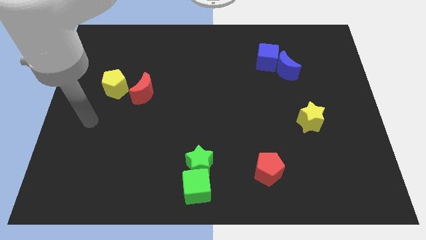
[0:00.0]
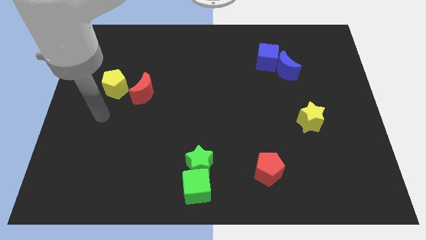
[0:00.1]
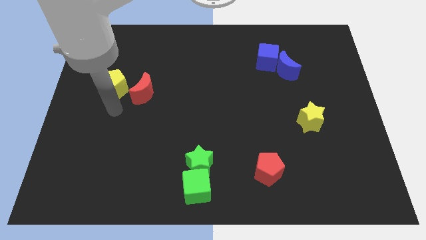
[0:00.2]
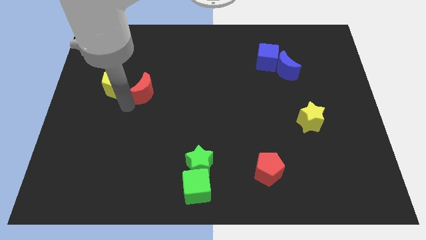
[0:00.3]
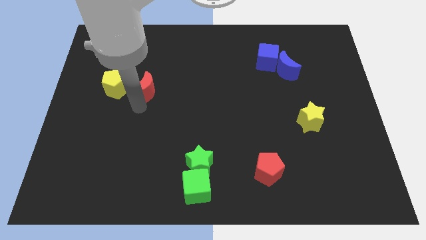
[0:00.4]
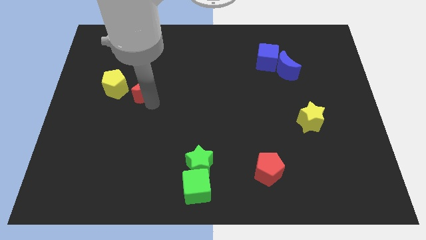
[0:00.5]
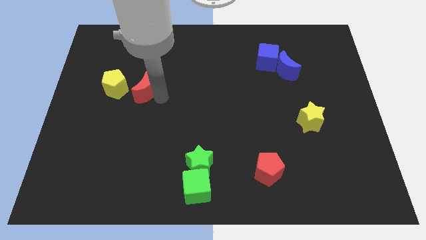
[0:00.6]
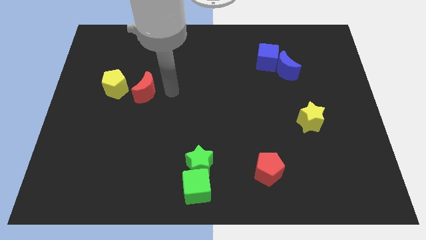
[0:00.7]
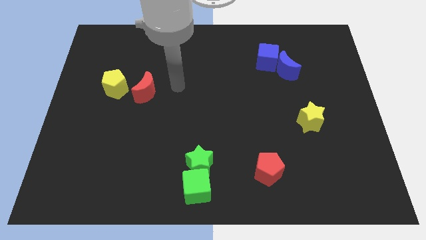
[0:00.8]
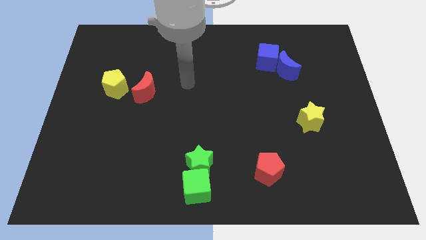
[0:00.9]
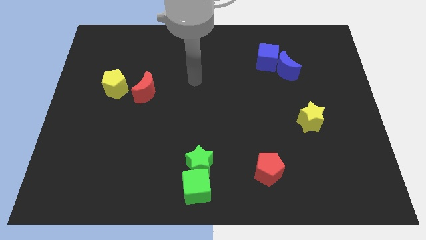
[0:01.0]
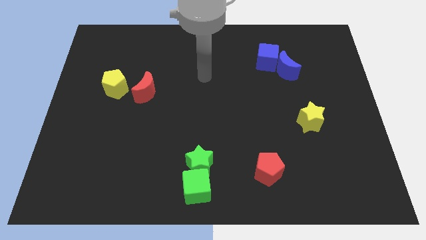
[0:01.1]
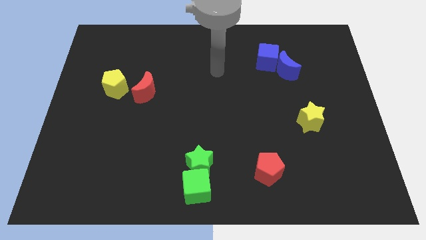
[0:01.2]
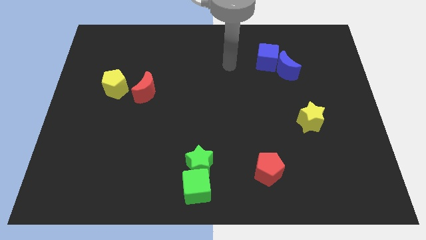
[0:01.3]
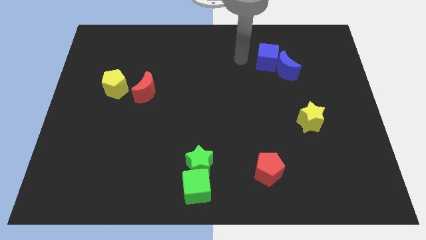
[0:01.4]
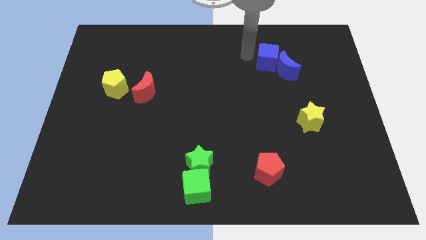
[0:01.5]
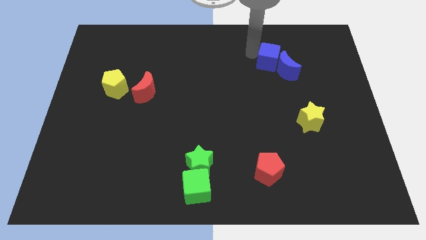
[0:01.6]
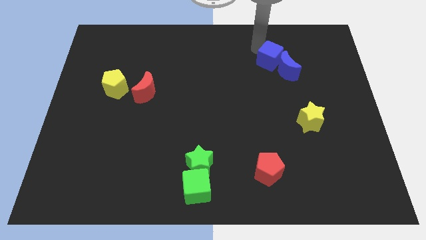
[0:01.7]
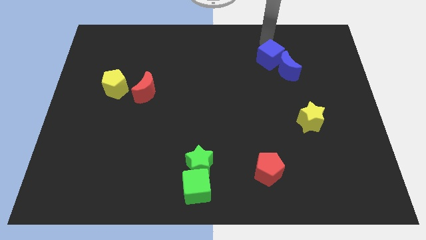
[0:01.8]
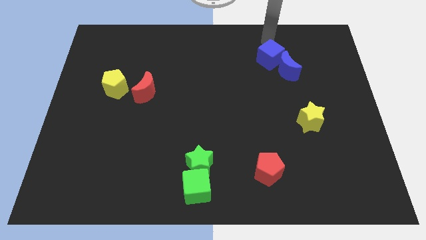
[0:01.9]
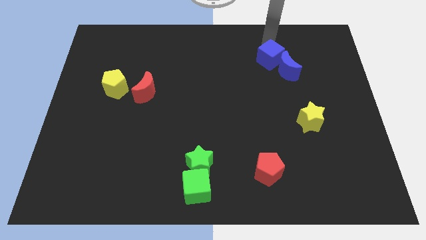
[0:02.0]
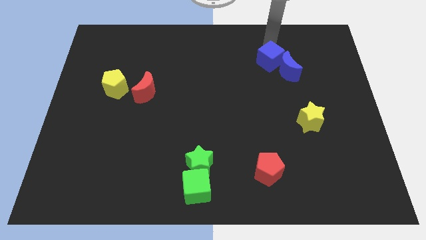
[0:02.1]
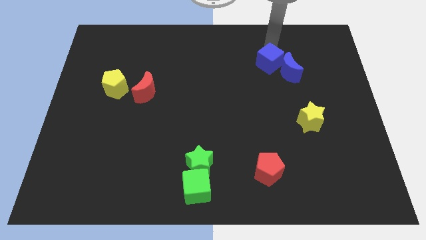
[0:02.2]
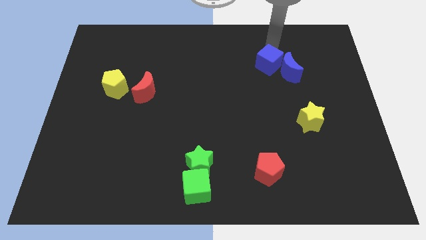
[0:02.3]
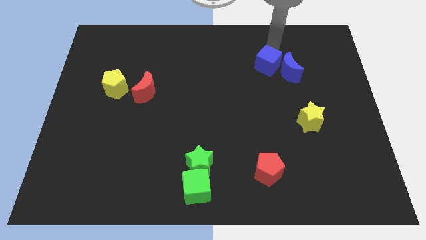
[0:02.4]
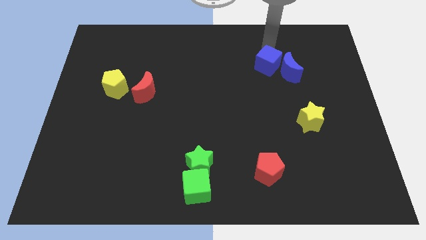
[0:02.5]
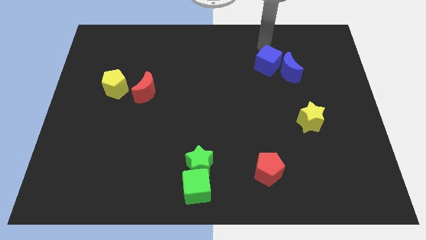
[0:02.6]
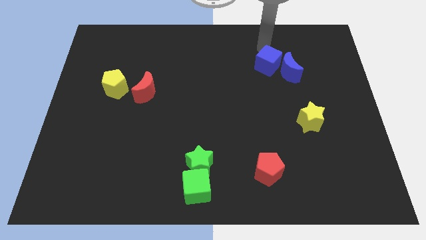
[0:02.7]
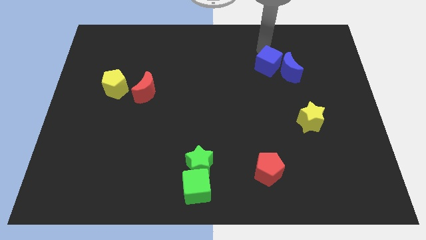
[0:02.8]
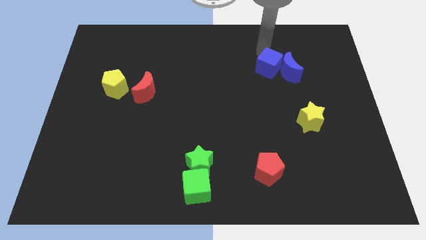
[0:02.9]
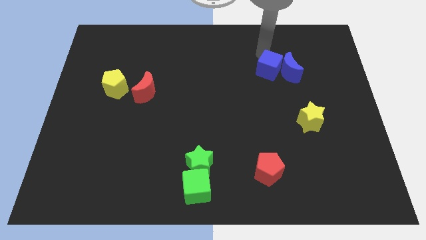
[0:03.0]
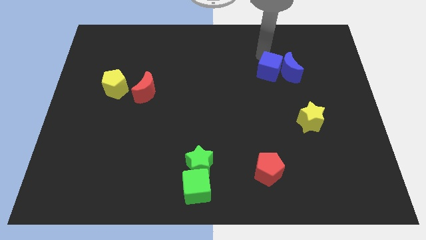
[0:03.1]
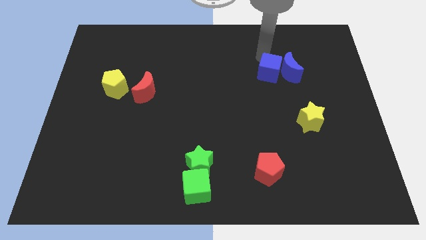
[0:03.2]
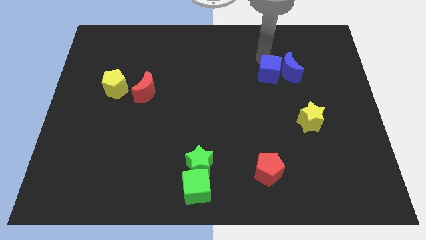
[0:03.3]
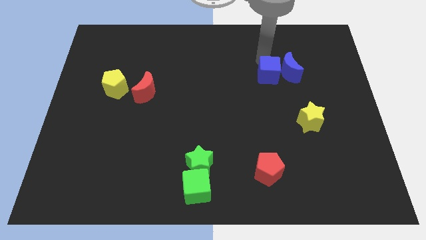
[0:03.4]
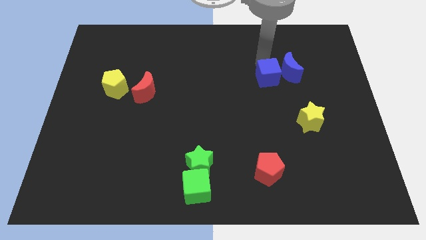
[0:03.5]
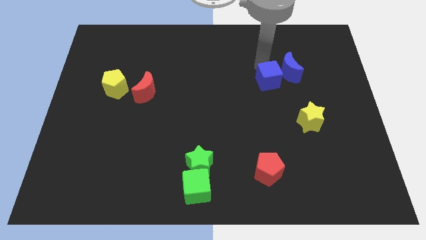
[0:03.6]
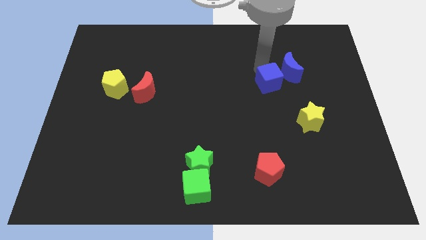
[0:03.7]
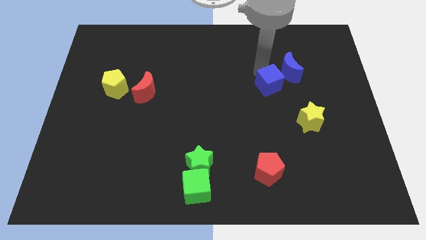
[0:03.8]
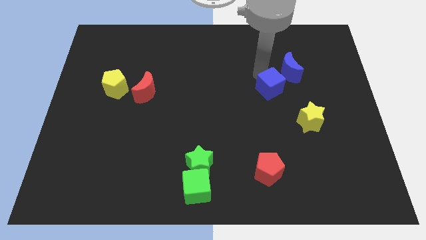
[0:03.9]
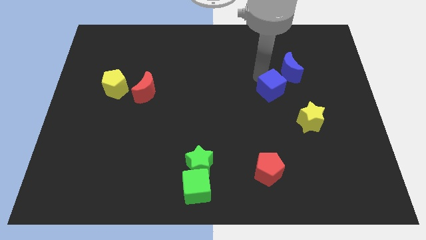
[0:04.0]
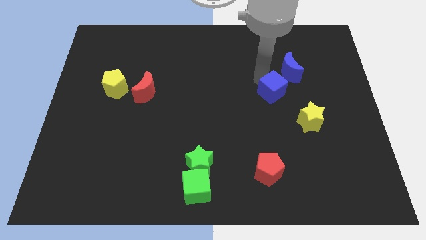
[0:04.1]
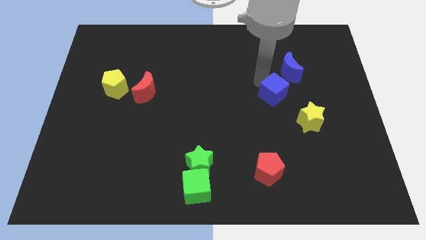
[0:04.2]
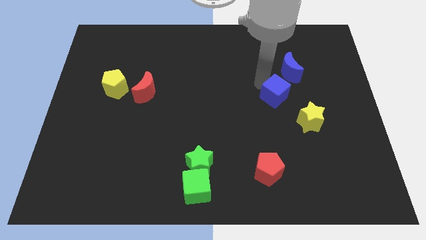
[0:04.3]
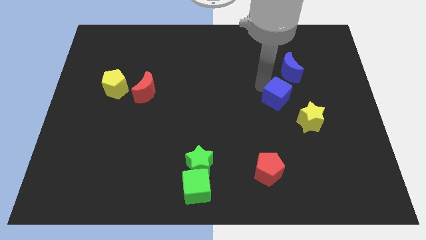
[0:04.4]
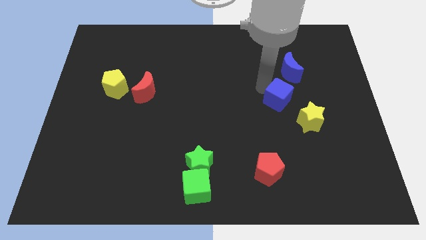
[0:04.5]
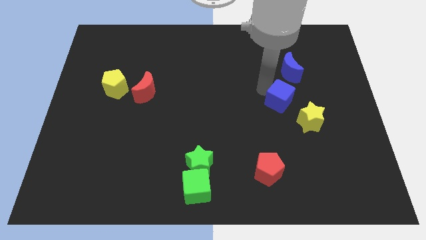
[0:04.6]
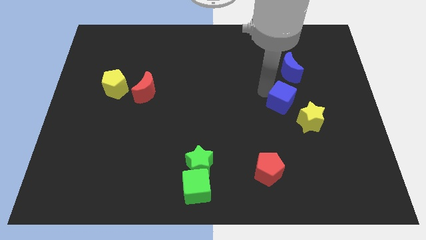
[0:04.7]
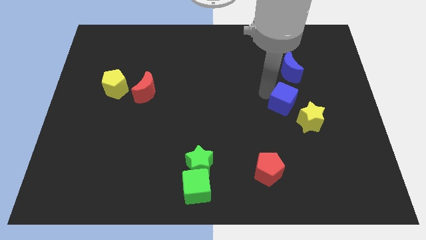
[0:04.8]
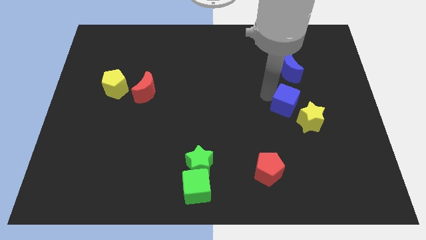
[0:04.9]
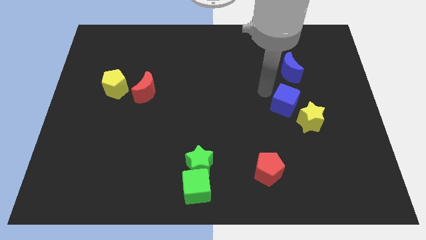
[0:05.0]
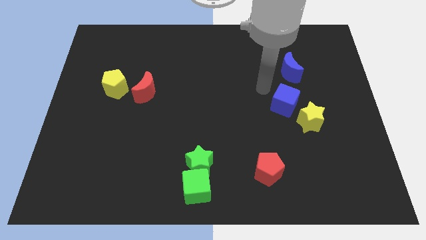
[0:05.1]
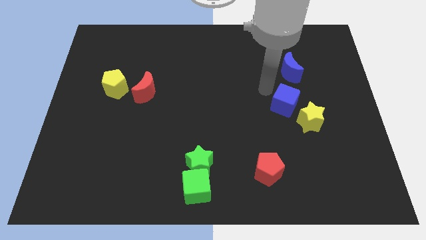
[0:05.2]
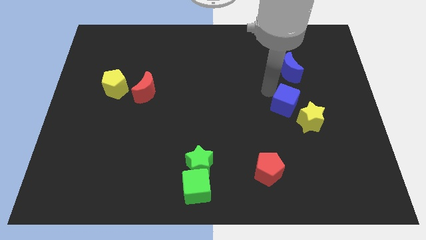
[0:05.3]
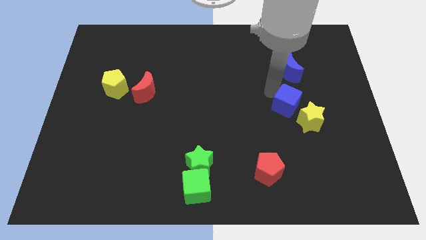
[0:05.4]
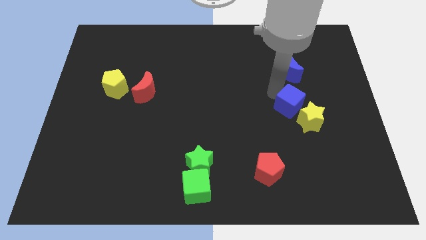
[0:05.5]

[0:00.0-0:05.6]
put the blue cube towards the yellow star

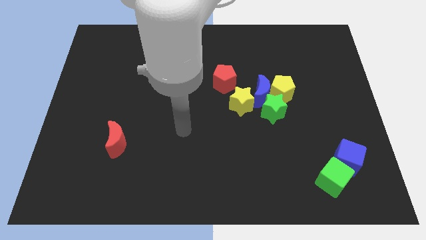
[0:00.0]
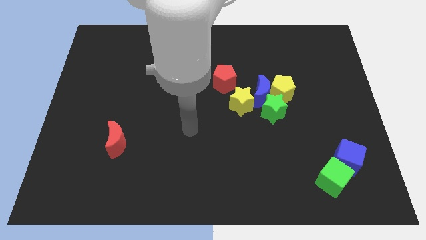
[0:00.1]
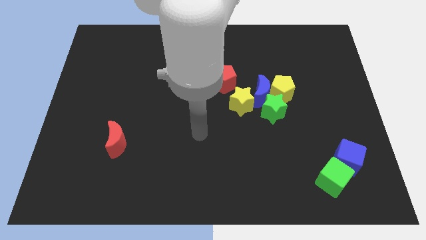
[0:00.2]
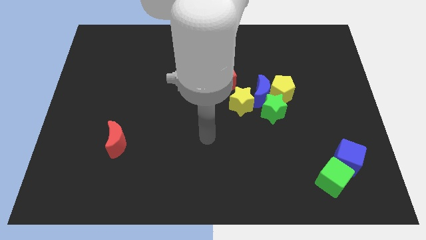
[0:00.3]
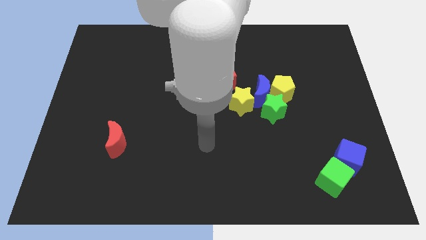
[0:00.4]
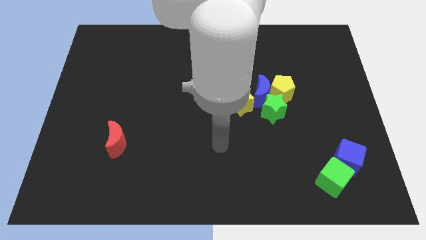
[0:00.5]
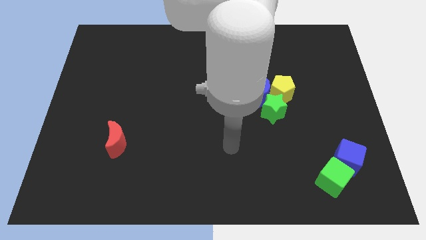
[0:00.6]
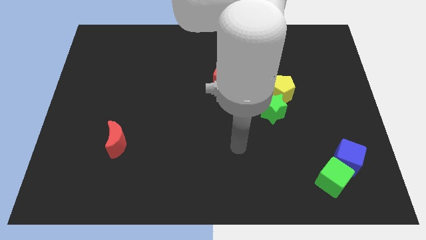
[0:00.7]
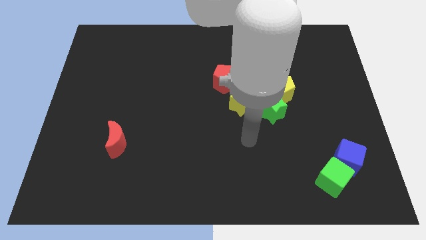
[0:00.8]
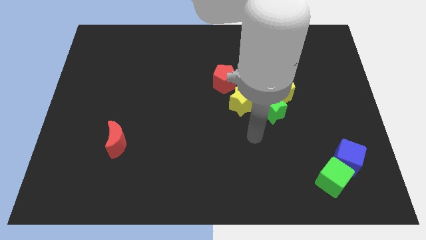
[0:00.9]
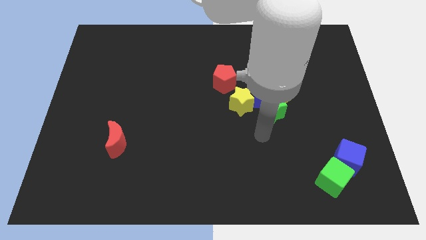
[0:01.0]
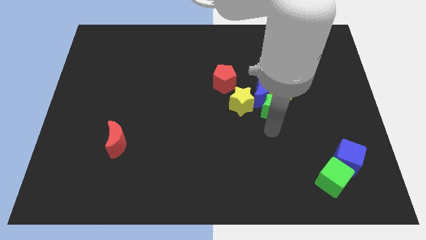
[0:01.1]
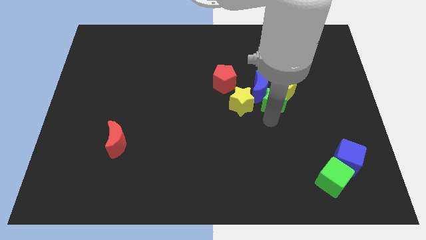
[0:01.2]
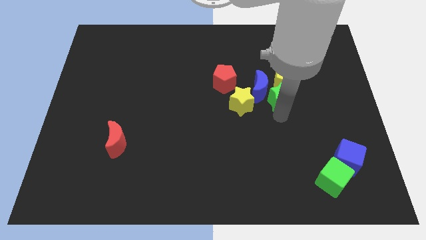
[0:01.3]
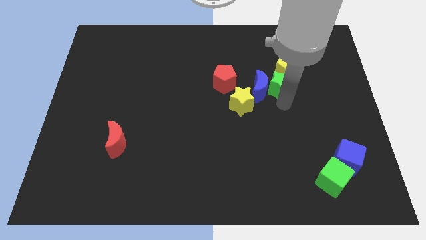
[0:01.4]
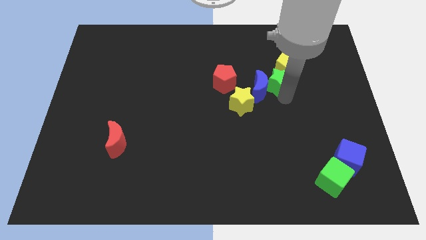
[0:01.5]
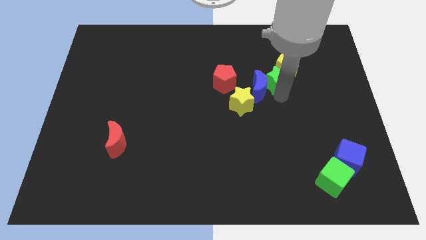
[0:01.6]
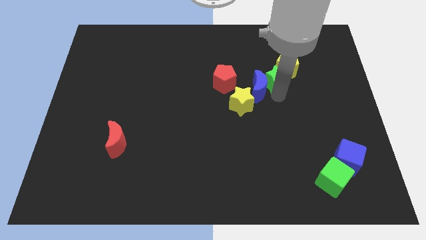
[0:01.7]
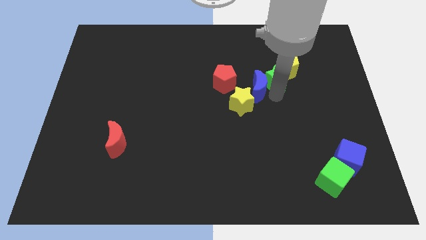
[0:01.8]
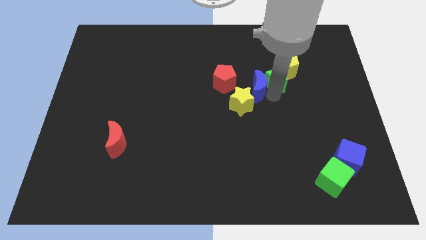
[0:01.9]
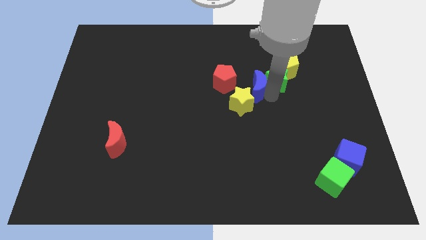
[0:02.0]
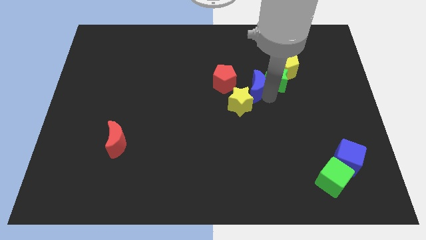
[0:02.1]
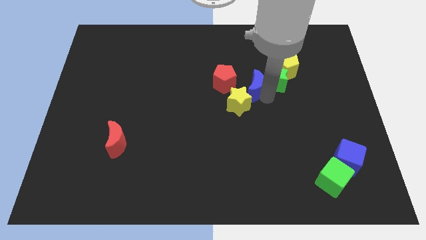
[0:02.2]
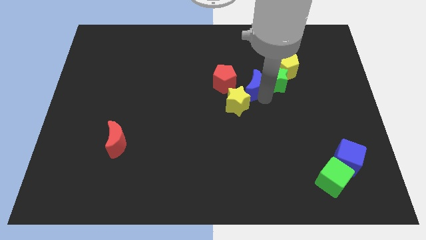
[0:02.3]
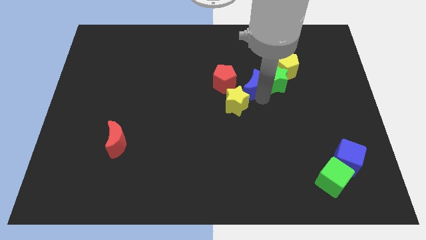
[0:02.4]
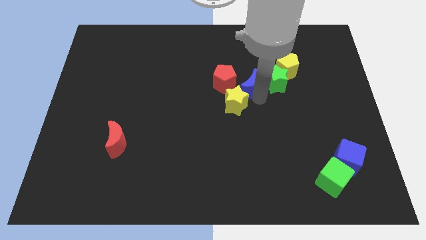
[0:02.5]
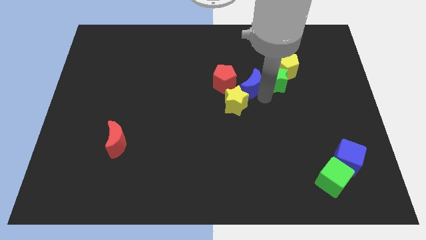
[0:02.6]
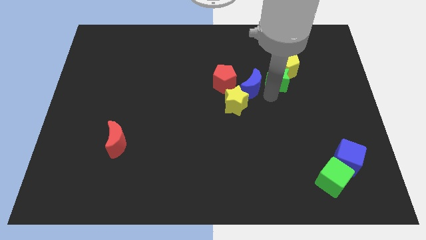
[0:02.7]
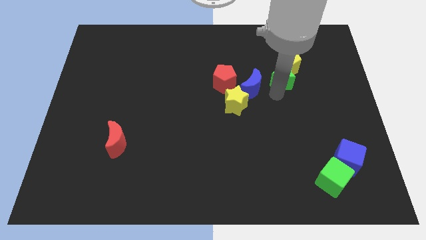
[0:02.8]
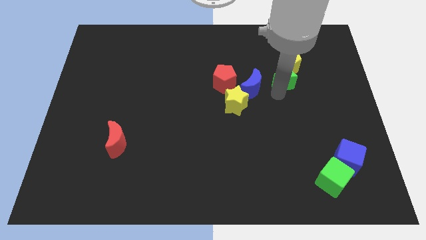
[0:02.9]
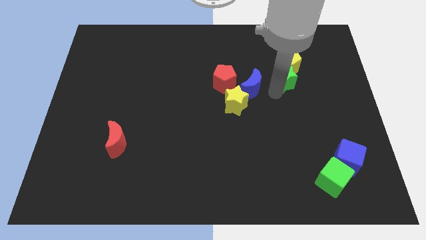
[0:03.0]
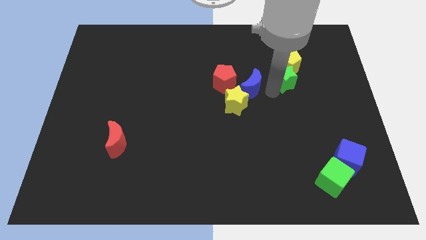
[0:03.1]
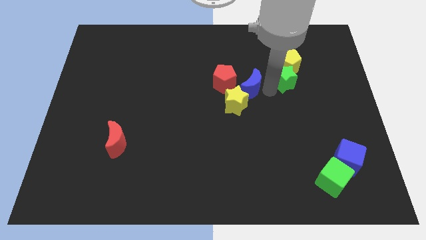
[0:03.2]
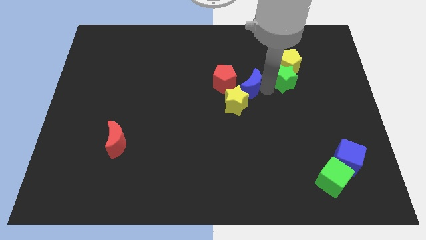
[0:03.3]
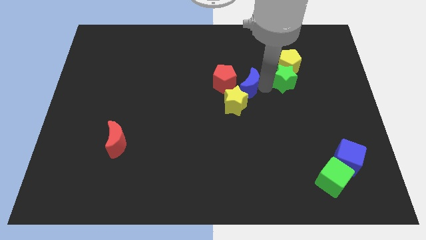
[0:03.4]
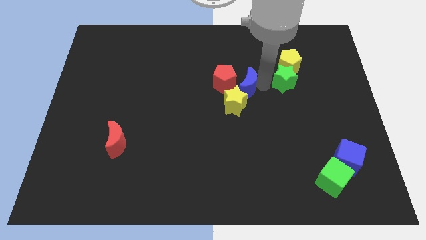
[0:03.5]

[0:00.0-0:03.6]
slide the blue moon next to the red pentagon
